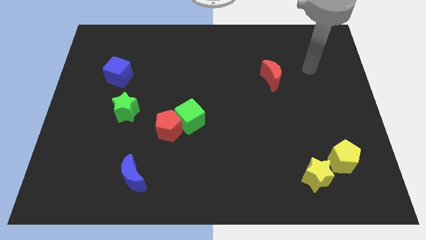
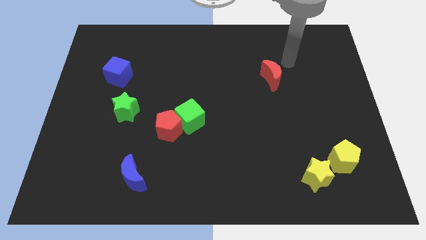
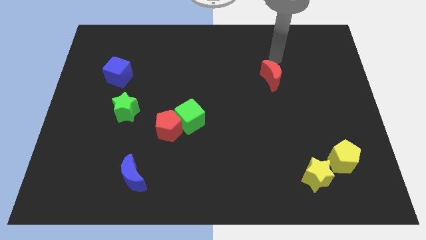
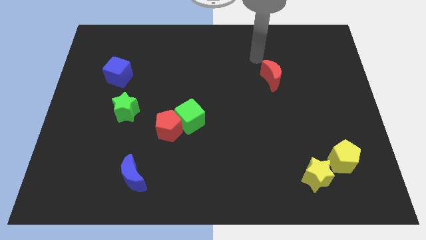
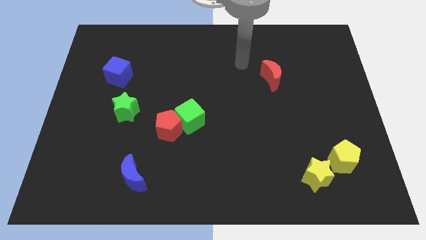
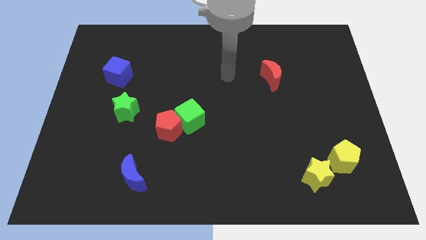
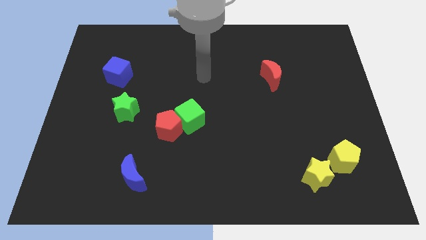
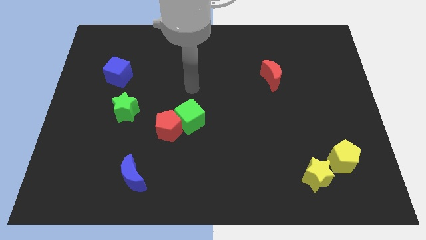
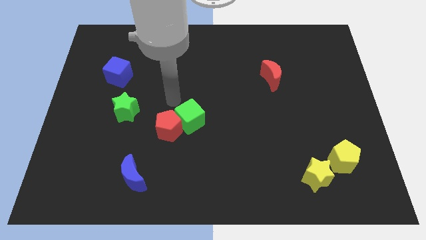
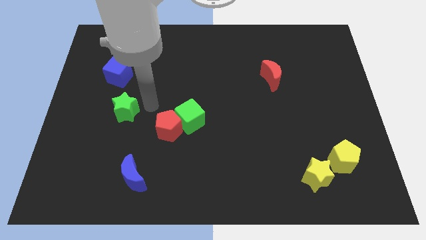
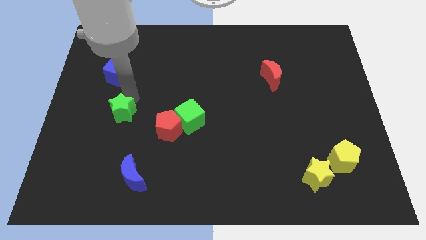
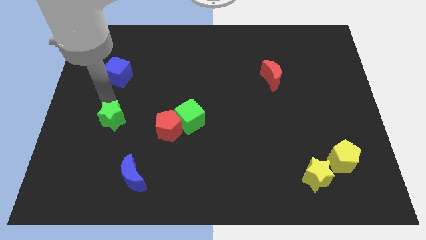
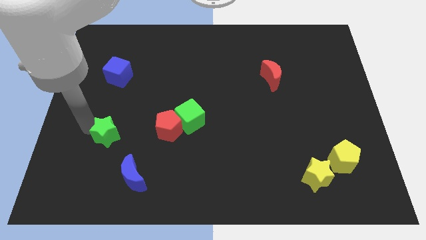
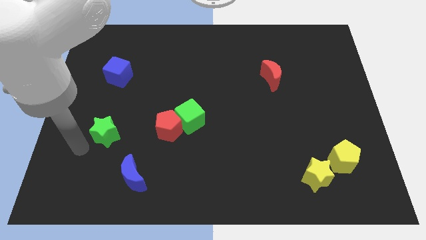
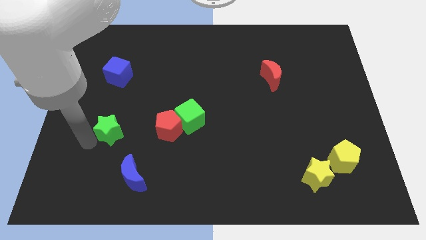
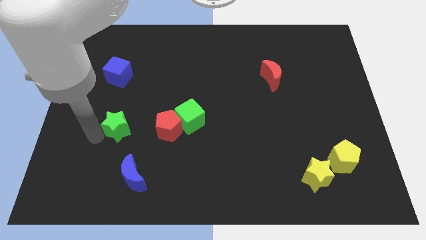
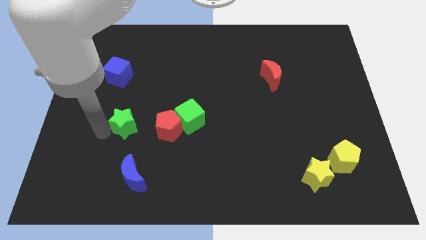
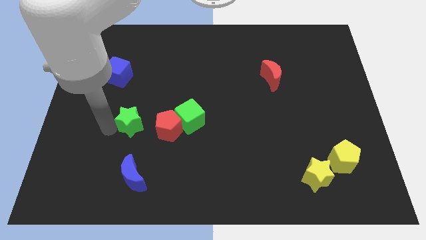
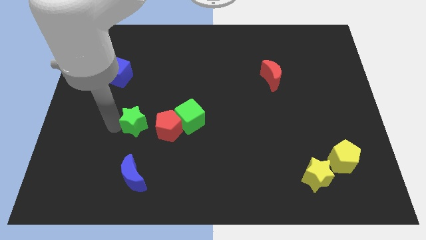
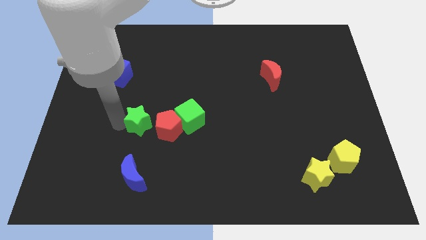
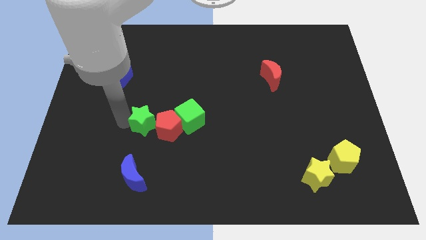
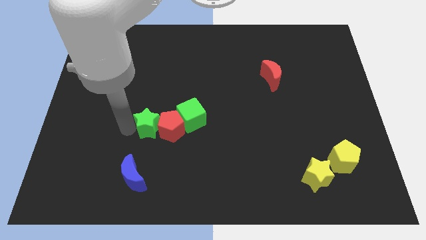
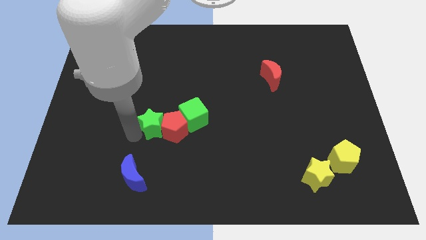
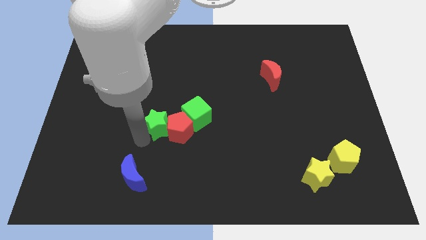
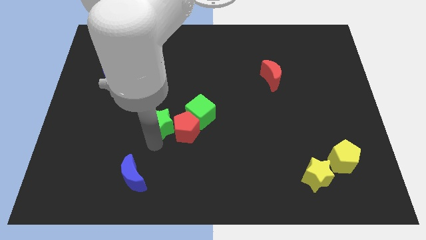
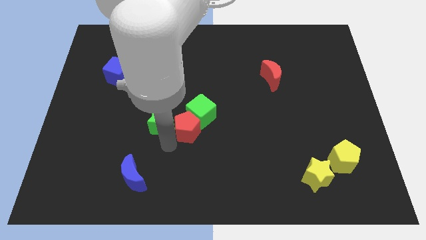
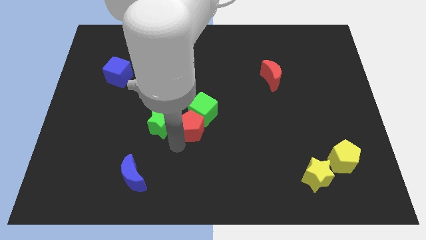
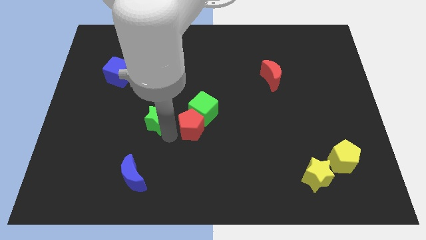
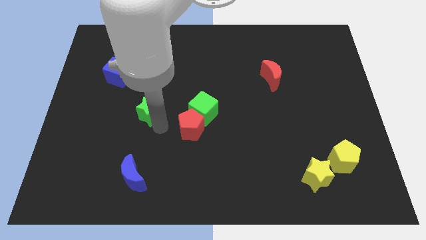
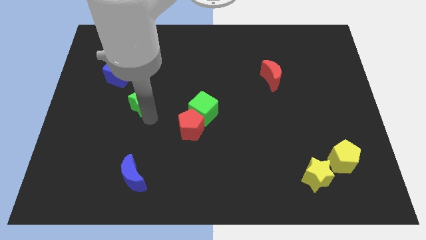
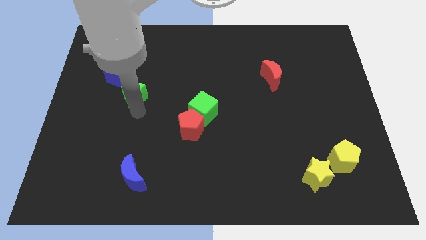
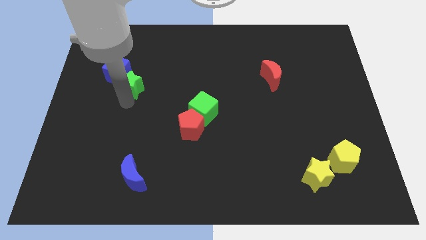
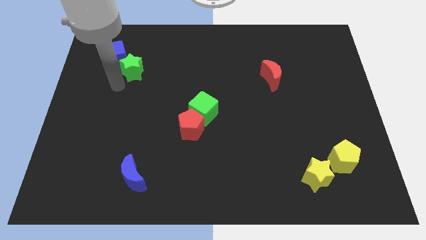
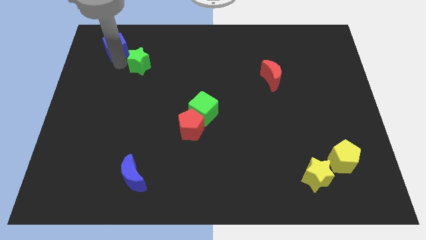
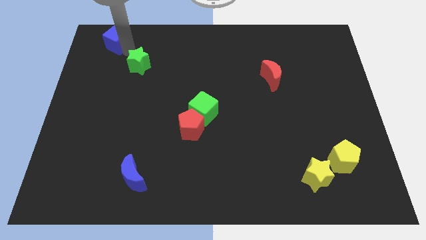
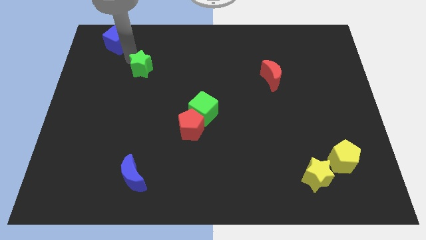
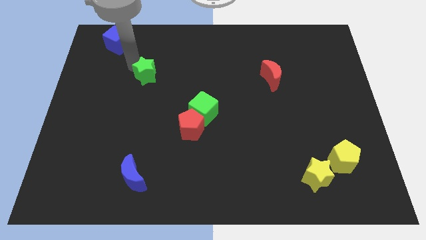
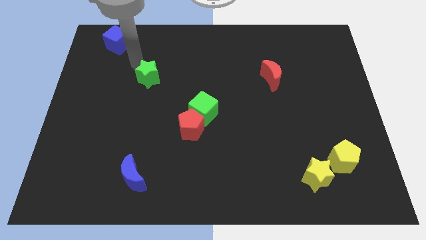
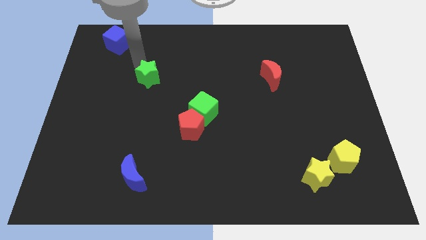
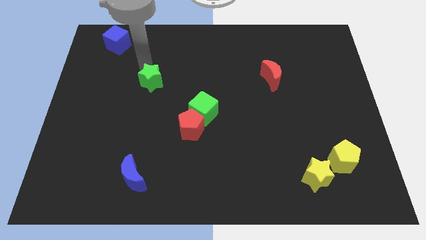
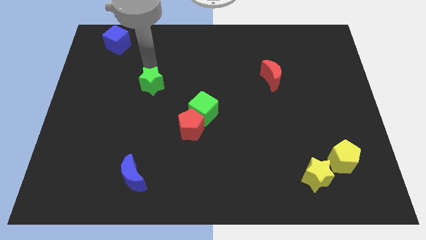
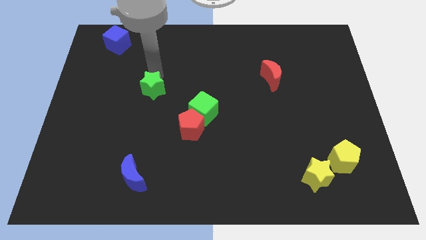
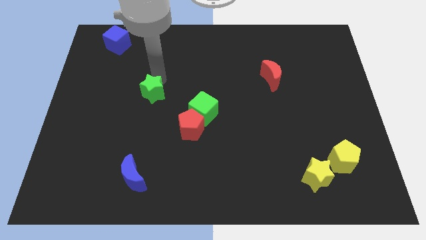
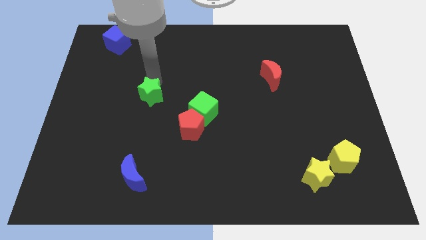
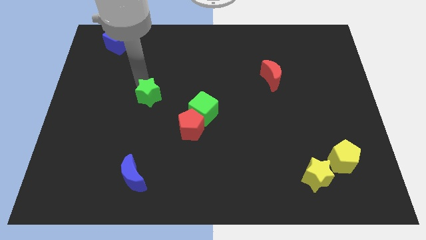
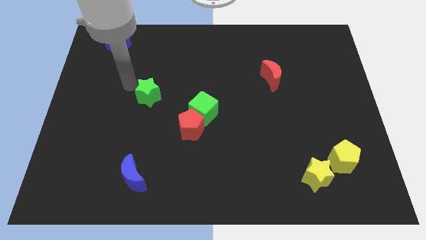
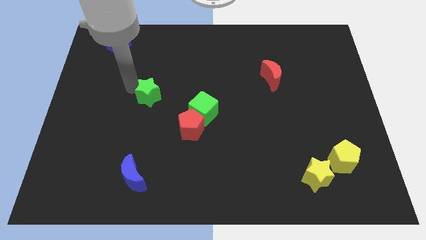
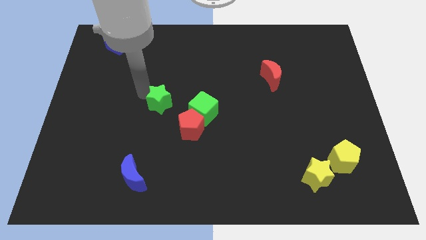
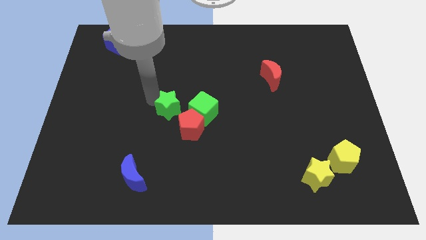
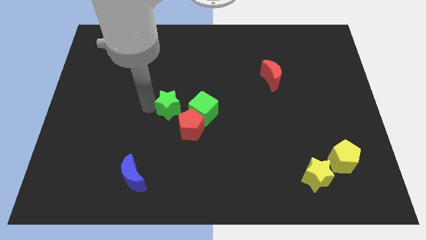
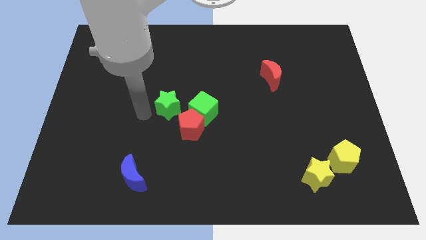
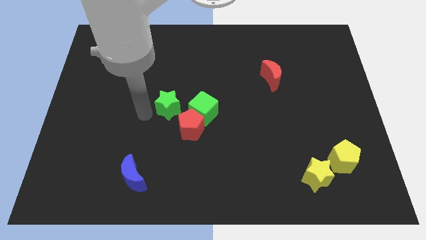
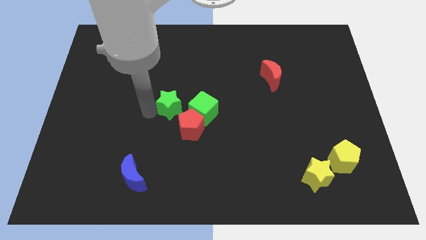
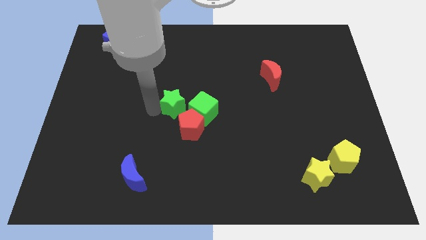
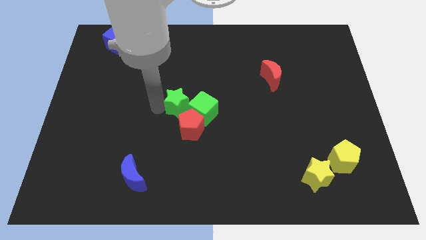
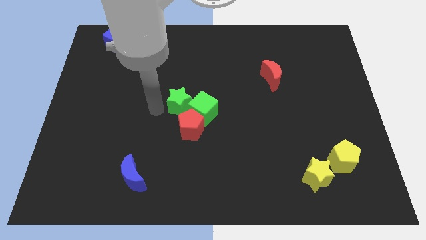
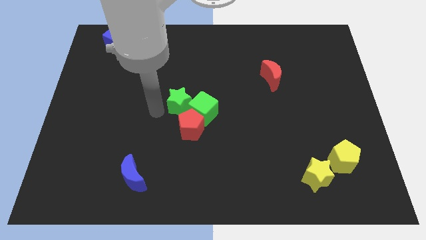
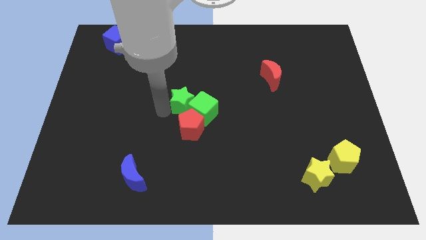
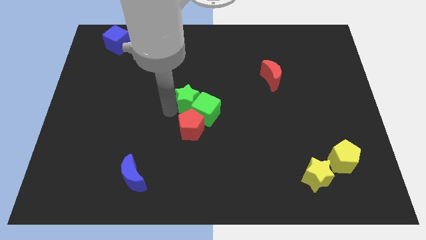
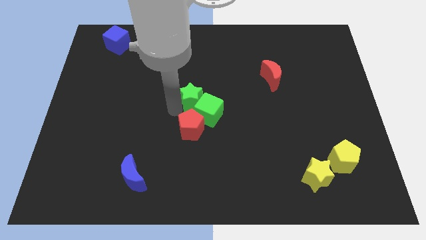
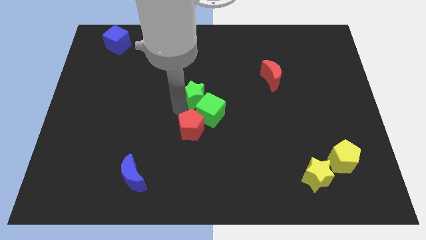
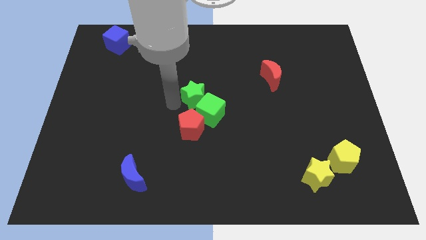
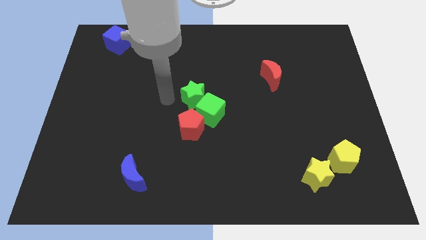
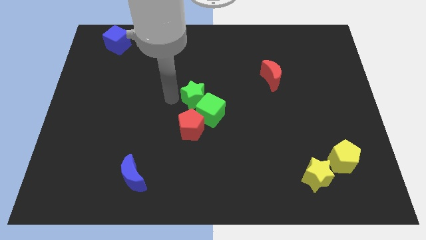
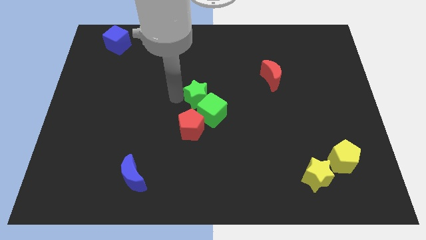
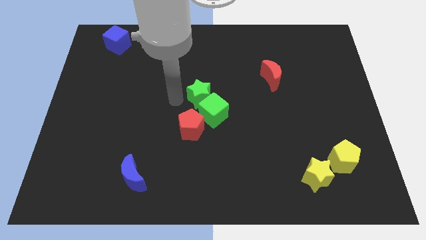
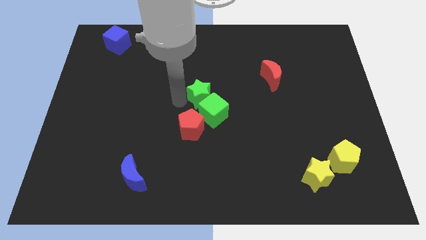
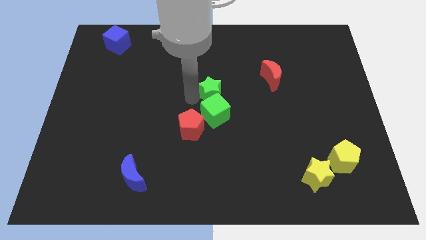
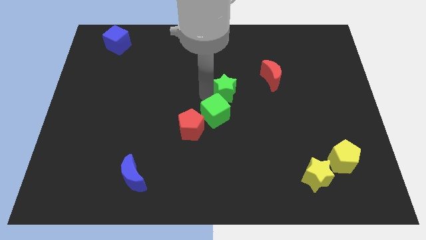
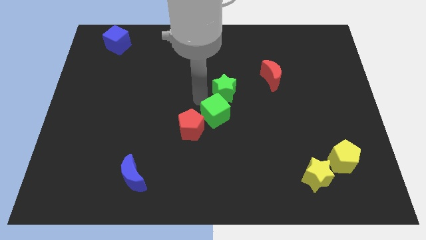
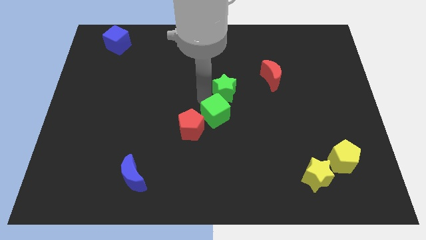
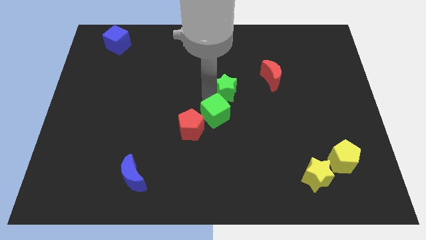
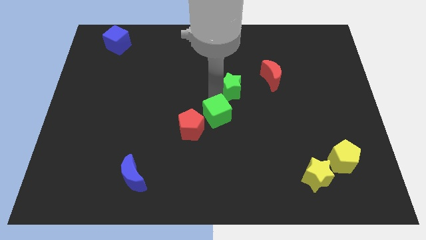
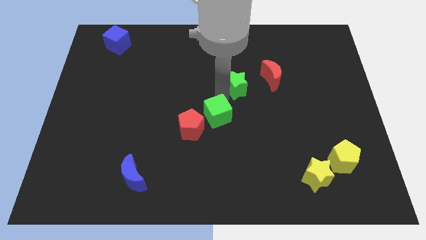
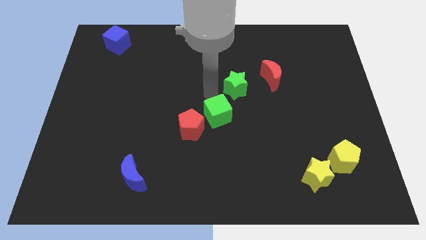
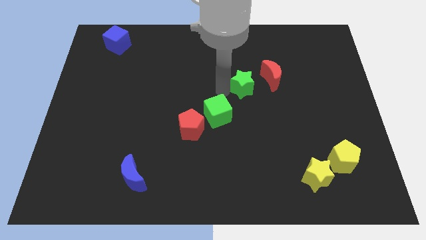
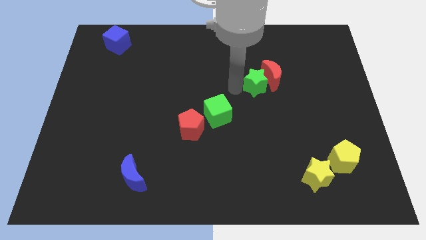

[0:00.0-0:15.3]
move the green star towards the red moon
